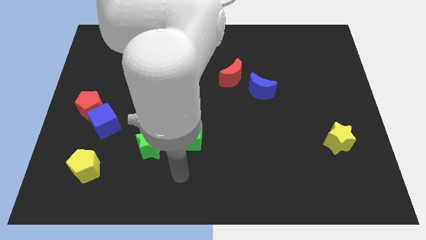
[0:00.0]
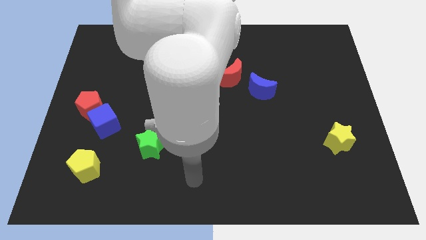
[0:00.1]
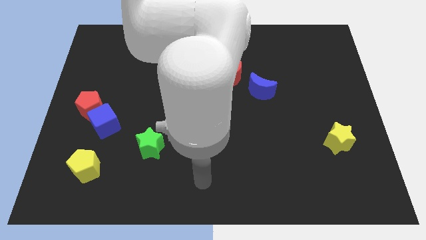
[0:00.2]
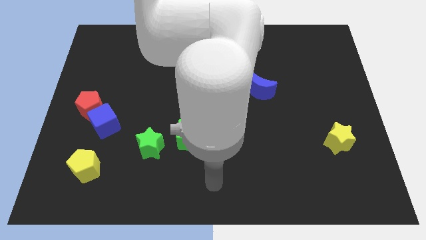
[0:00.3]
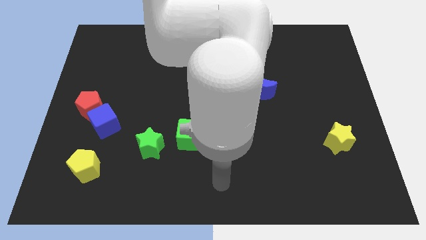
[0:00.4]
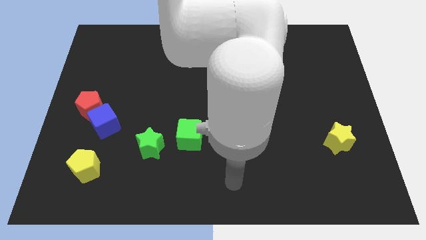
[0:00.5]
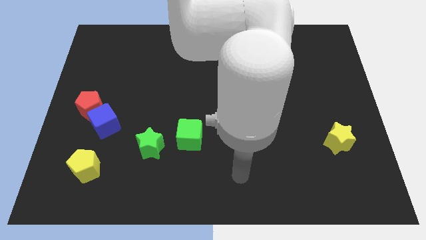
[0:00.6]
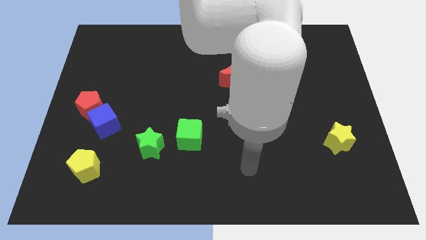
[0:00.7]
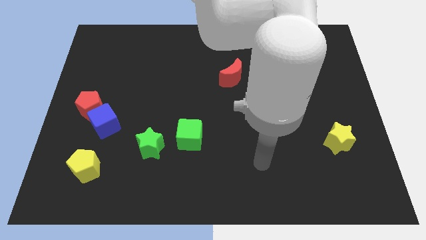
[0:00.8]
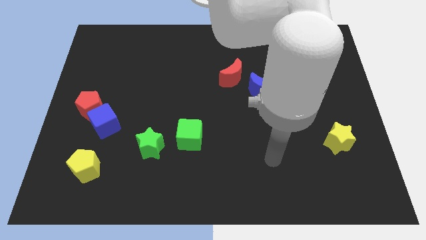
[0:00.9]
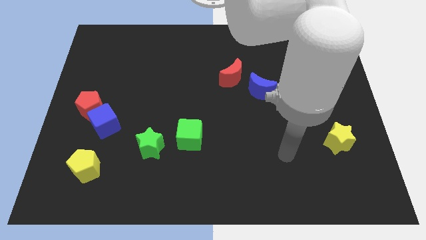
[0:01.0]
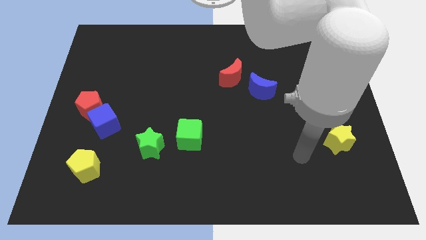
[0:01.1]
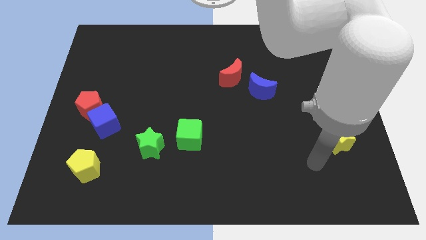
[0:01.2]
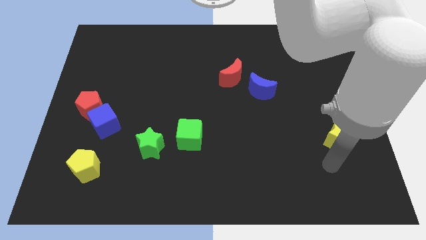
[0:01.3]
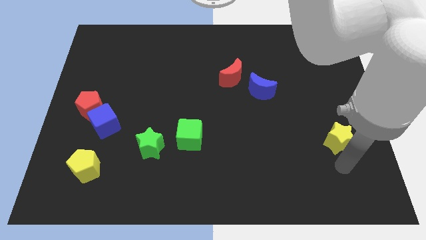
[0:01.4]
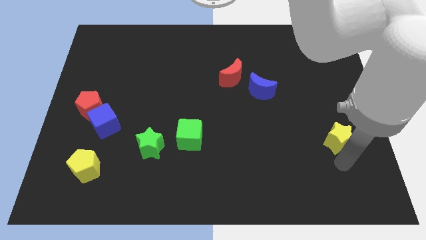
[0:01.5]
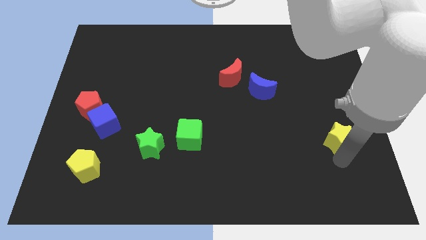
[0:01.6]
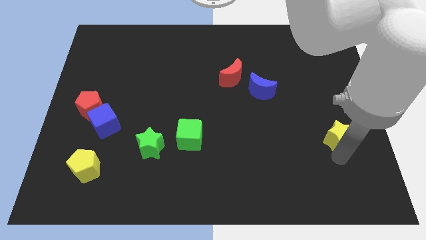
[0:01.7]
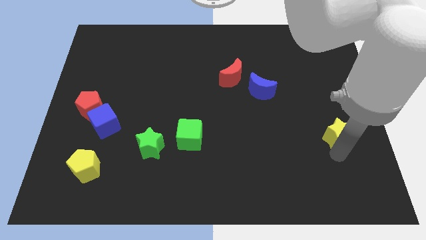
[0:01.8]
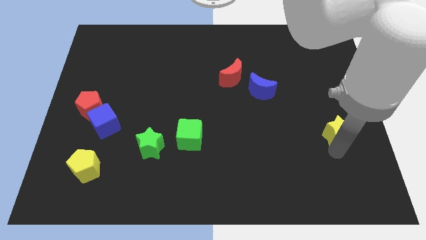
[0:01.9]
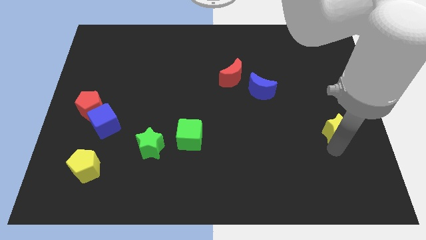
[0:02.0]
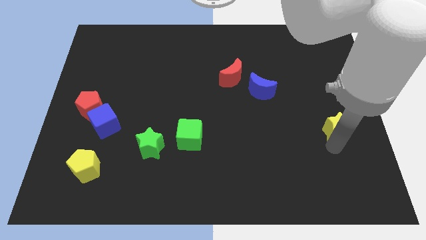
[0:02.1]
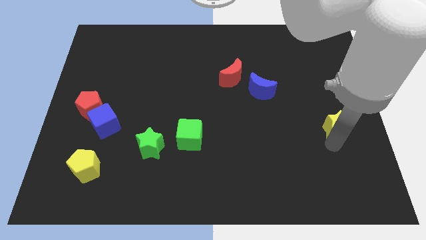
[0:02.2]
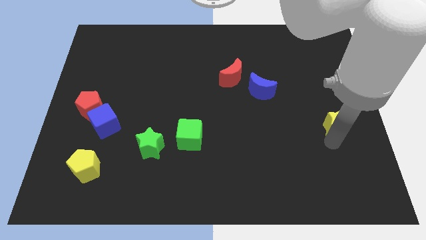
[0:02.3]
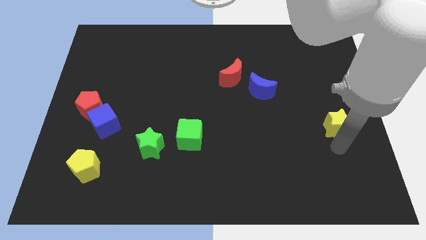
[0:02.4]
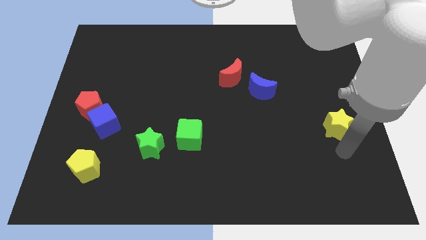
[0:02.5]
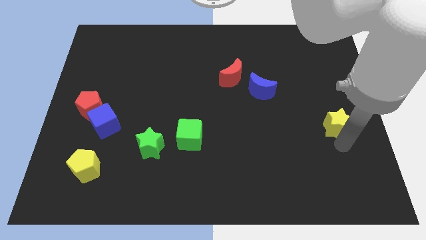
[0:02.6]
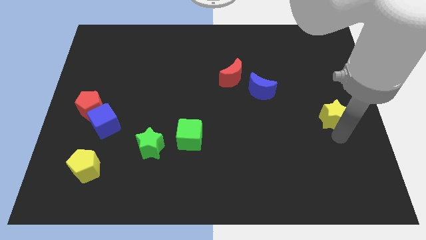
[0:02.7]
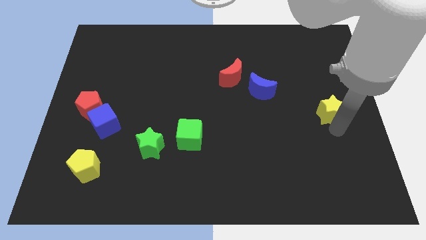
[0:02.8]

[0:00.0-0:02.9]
slide the yellow star up somewhat

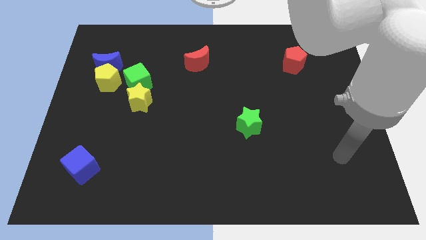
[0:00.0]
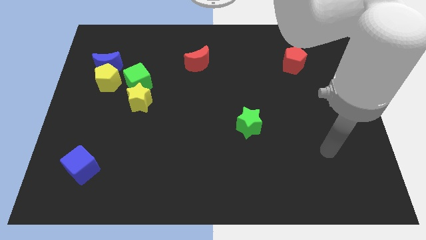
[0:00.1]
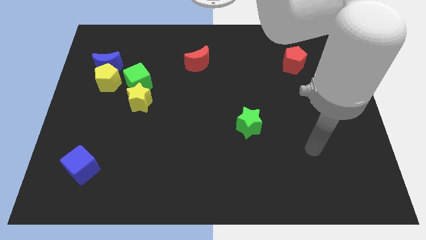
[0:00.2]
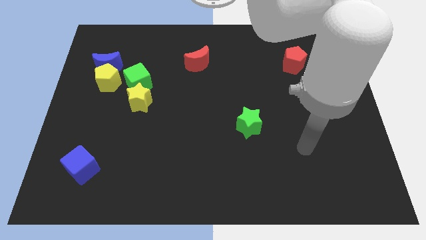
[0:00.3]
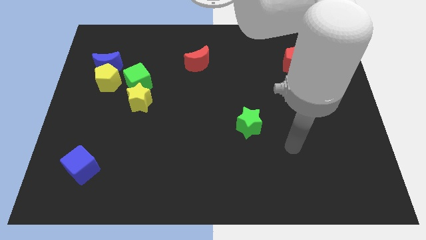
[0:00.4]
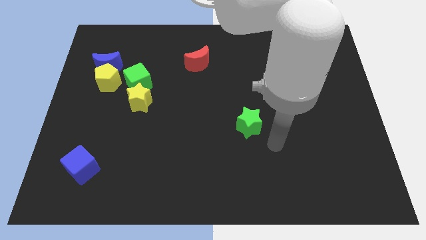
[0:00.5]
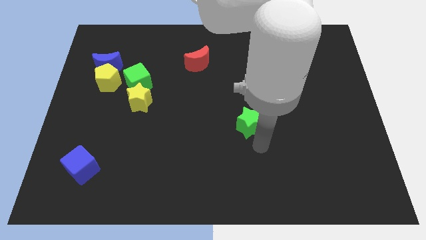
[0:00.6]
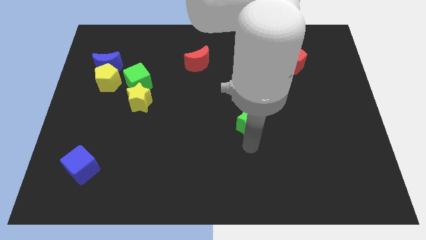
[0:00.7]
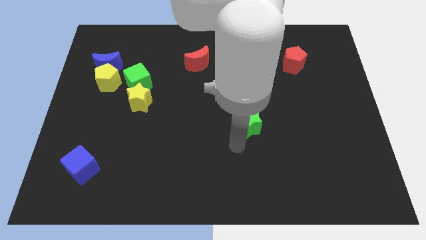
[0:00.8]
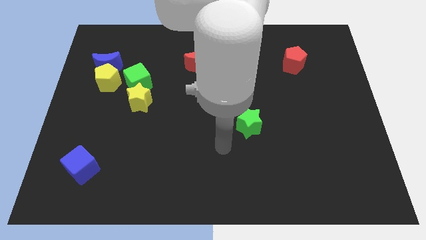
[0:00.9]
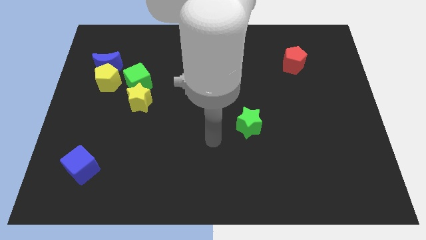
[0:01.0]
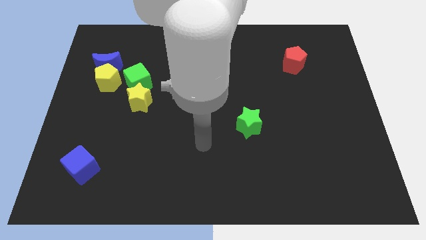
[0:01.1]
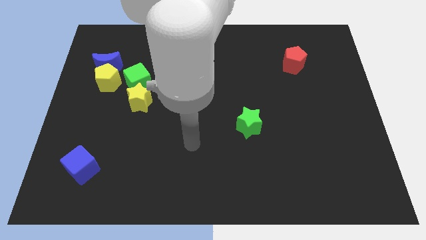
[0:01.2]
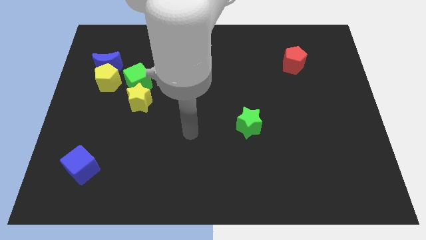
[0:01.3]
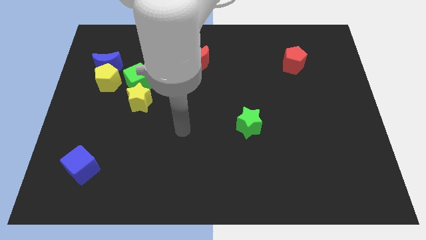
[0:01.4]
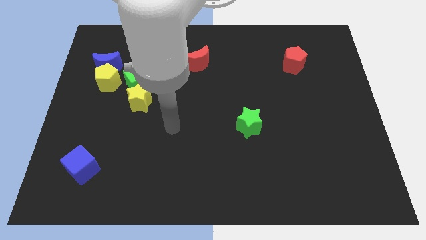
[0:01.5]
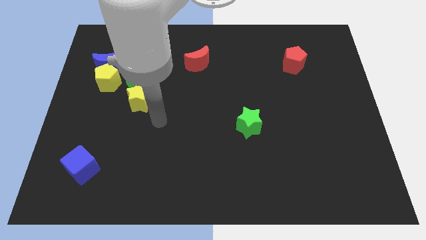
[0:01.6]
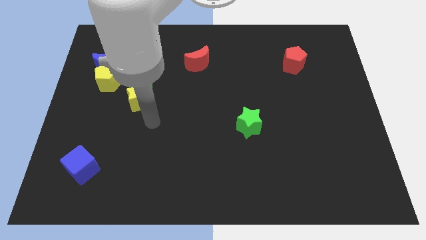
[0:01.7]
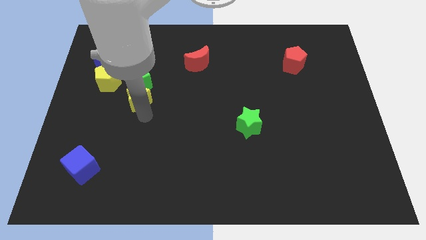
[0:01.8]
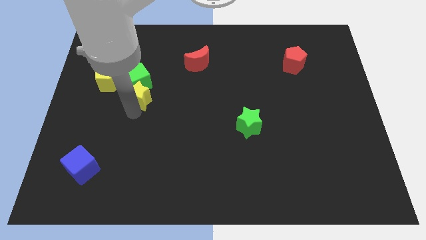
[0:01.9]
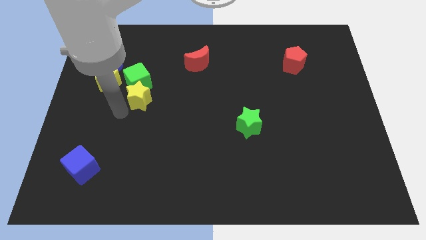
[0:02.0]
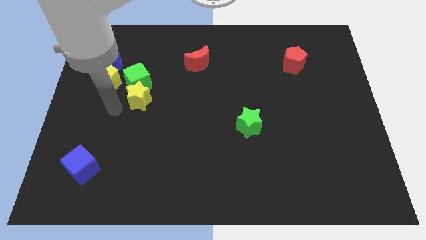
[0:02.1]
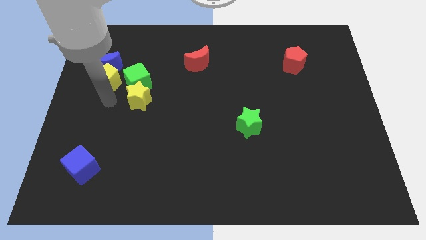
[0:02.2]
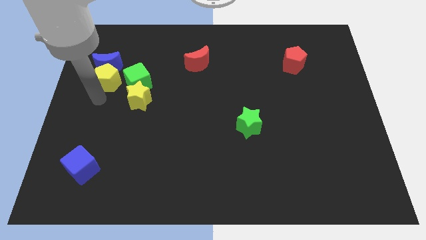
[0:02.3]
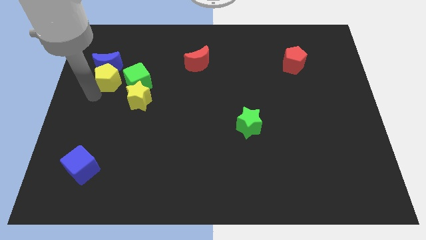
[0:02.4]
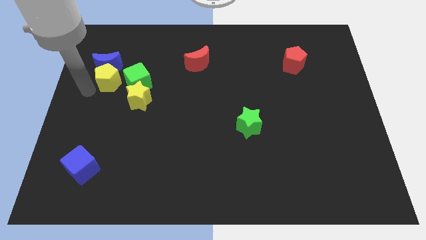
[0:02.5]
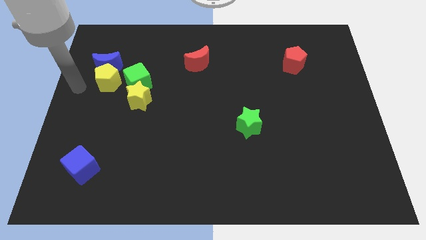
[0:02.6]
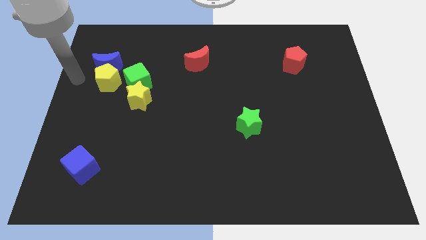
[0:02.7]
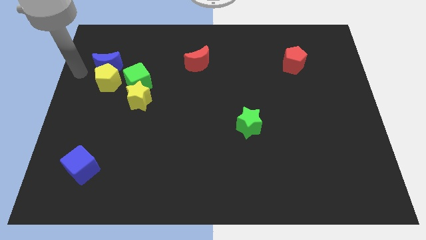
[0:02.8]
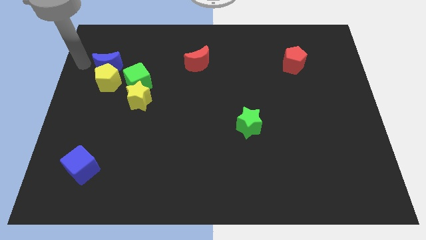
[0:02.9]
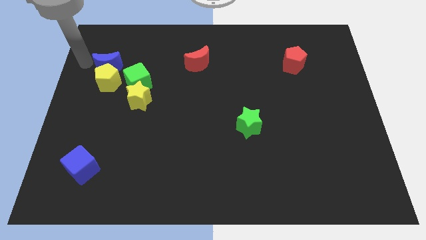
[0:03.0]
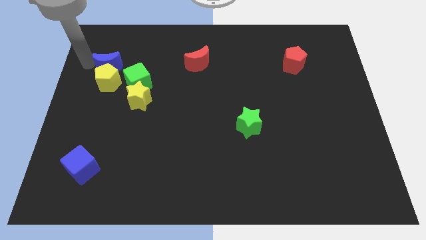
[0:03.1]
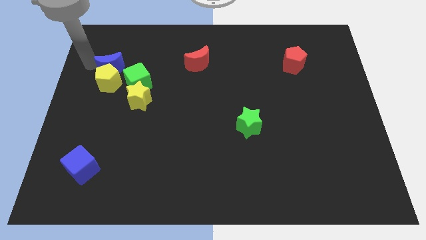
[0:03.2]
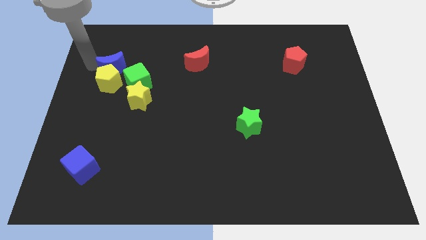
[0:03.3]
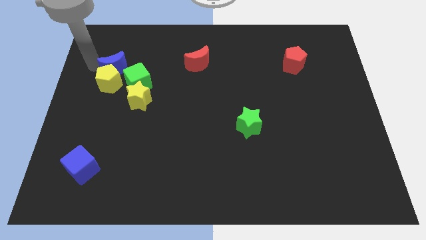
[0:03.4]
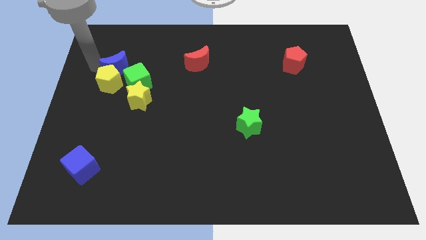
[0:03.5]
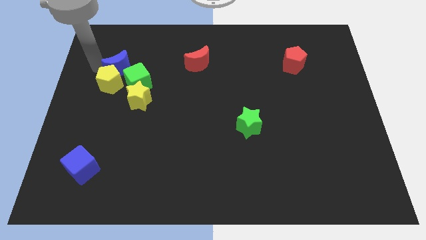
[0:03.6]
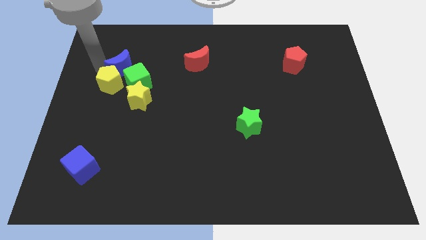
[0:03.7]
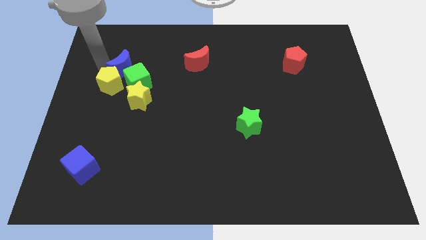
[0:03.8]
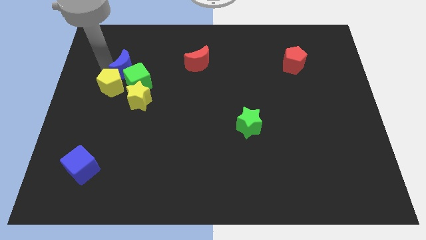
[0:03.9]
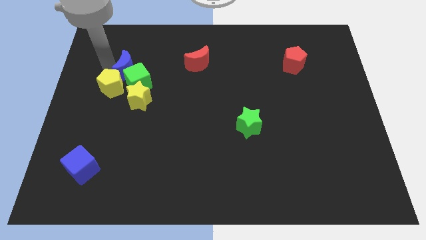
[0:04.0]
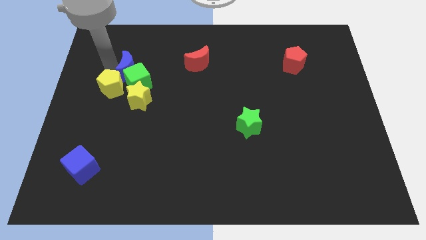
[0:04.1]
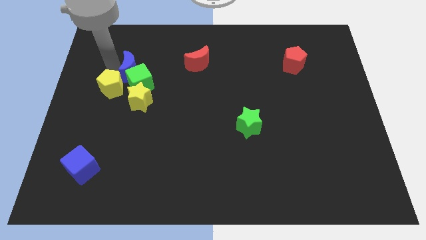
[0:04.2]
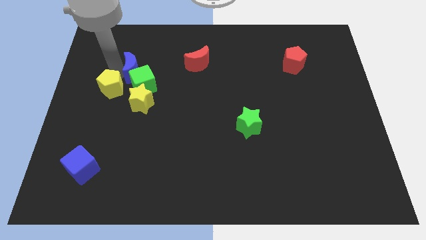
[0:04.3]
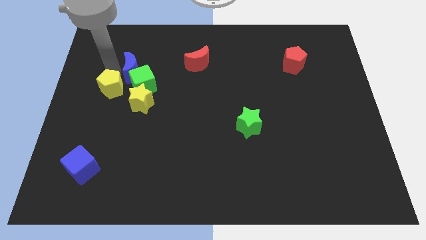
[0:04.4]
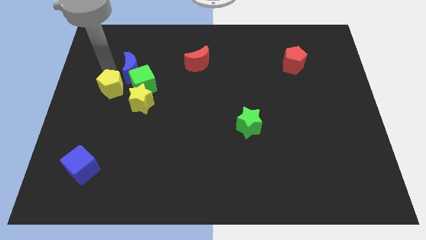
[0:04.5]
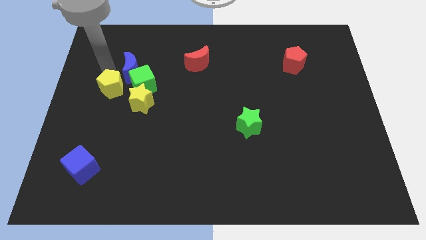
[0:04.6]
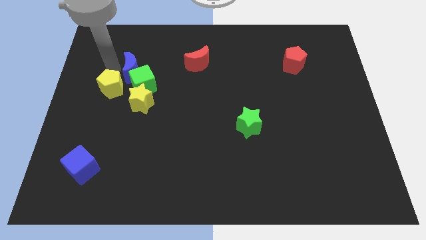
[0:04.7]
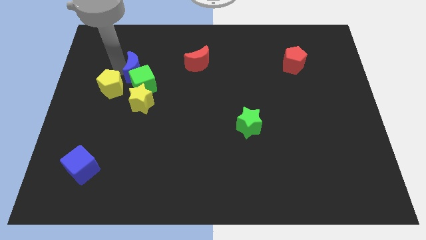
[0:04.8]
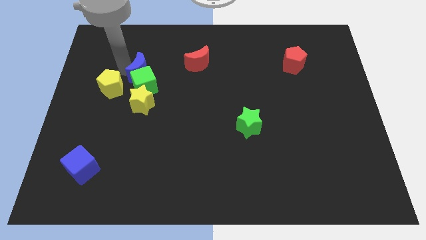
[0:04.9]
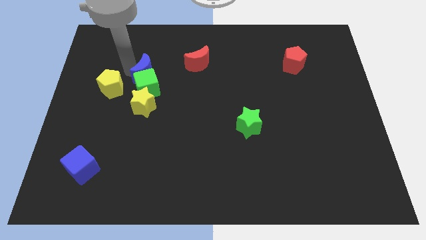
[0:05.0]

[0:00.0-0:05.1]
slide the blue moon a little down and then to the right
